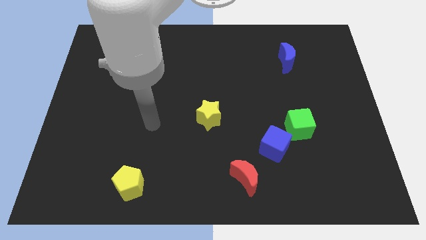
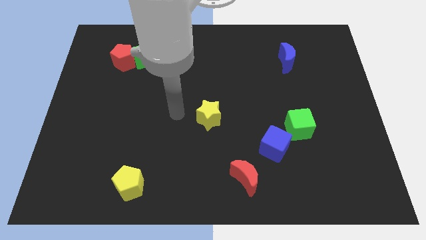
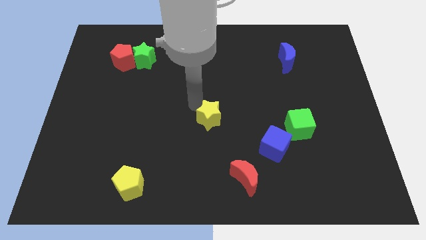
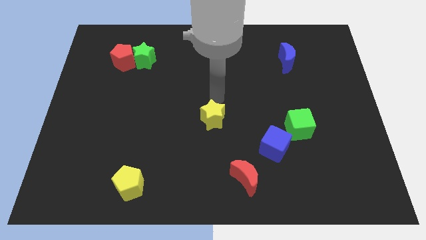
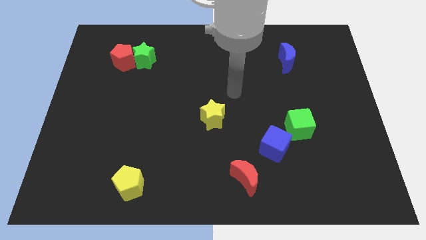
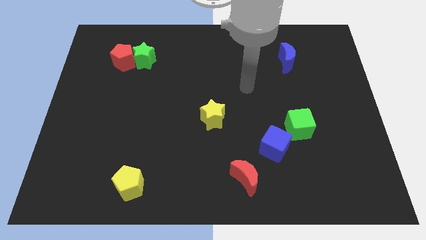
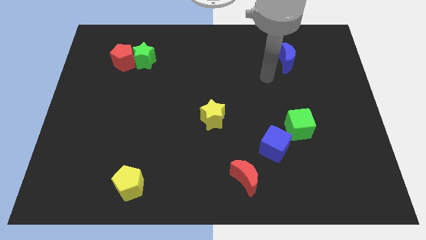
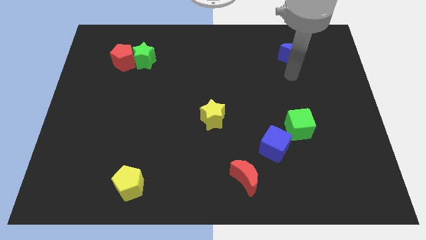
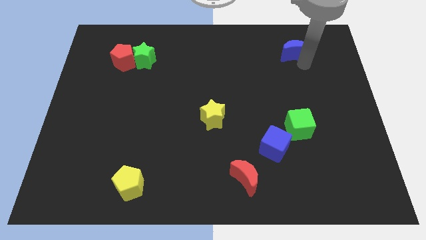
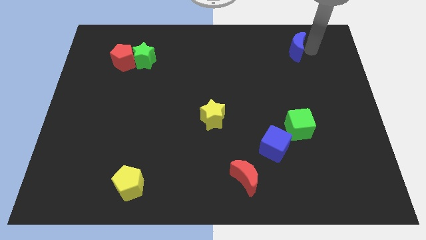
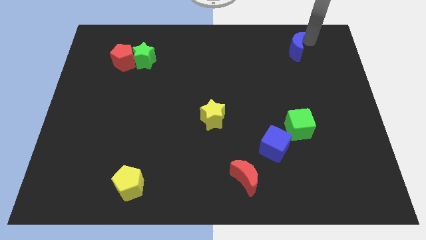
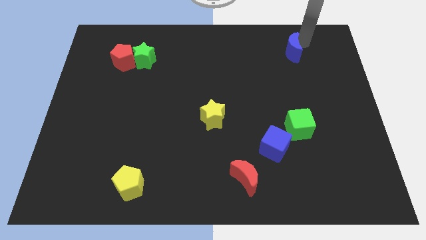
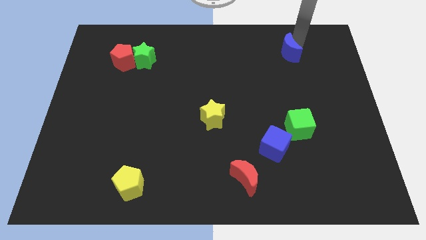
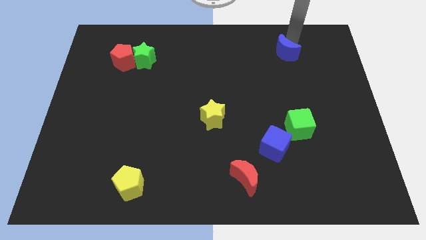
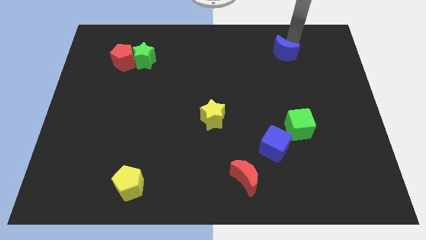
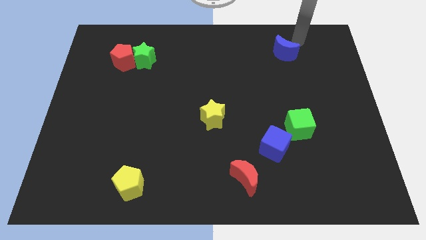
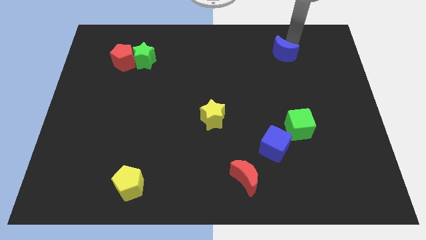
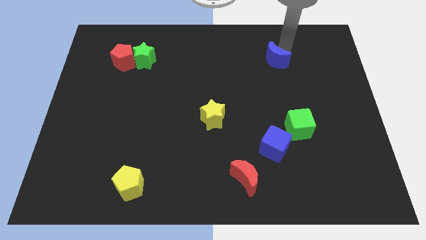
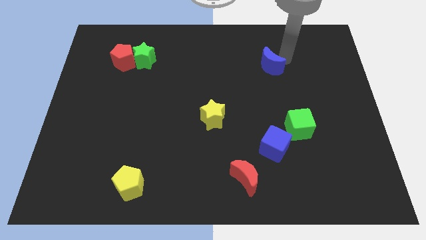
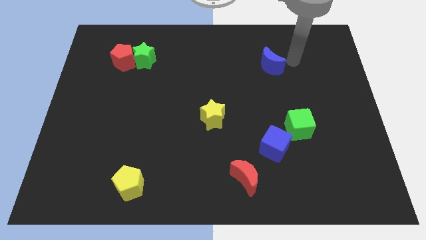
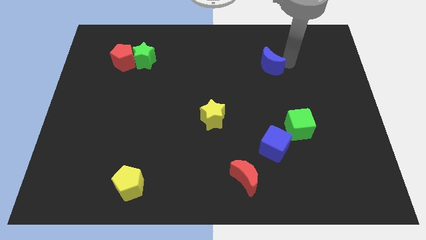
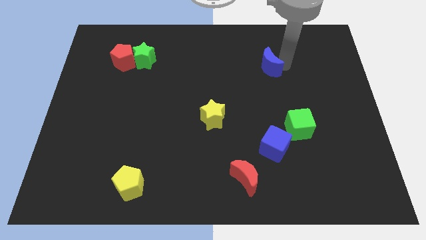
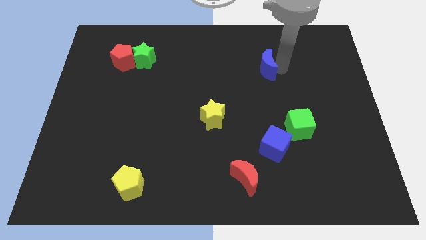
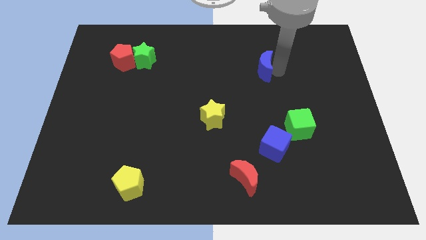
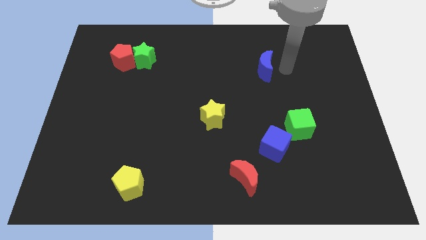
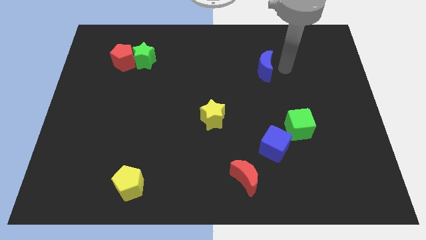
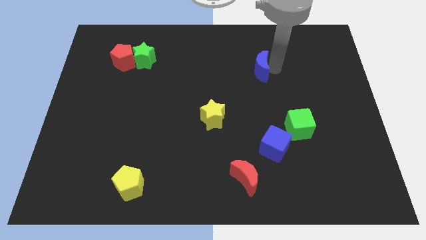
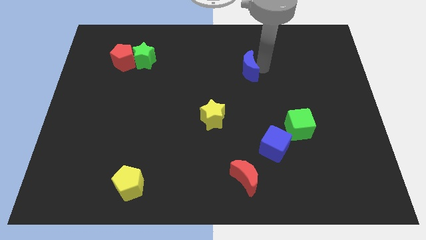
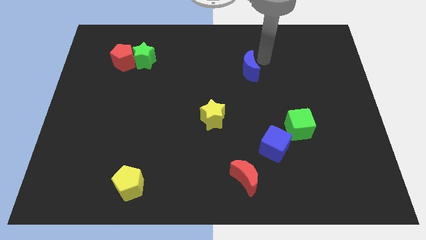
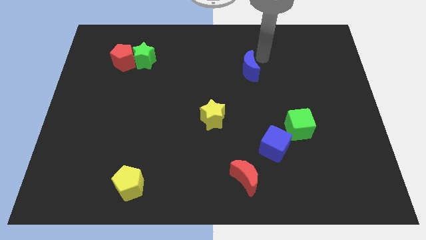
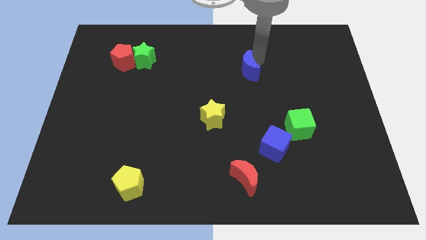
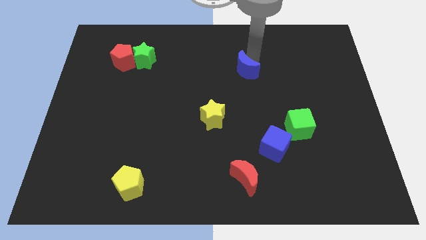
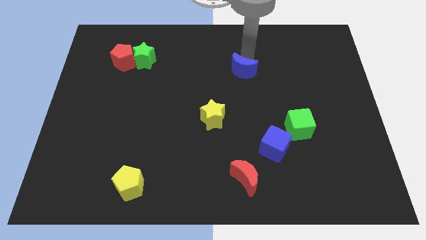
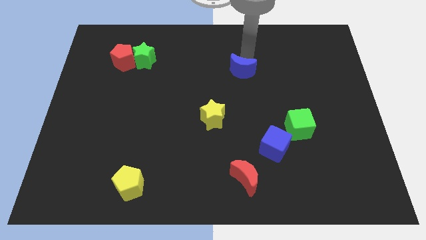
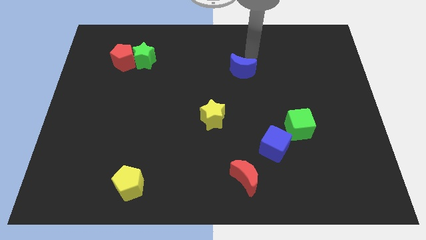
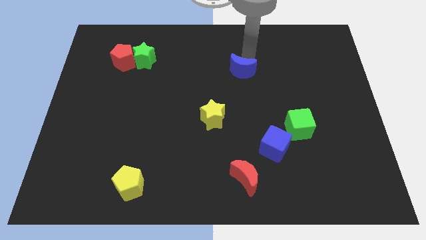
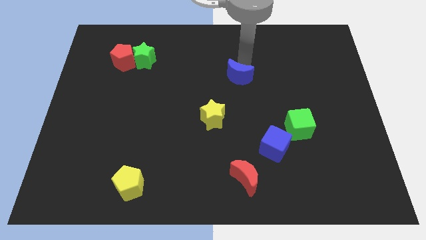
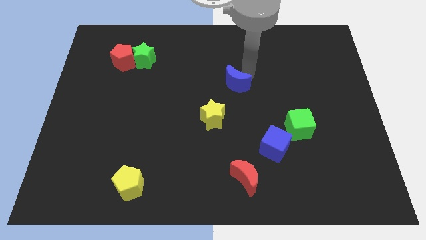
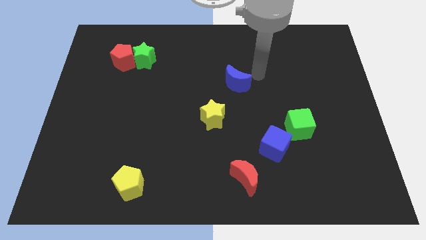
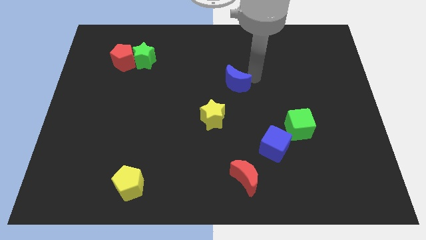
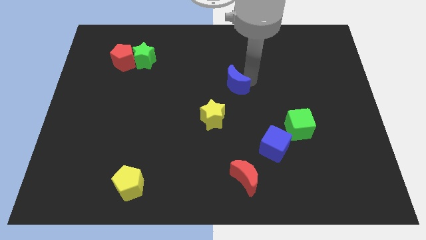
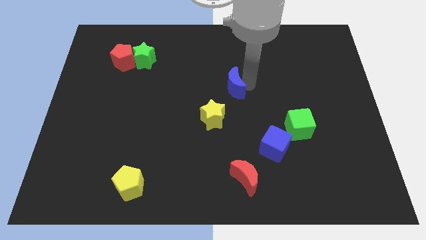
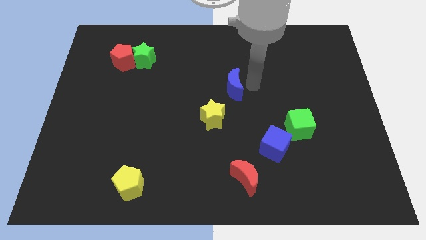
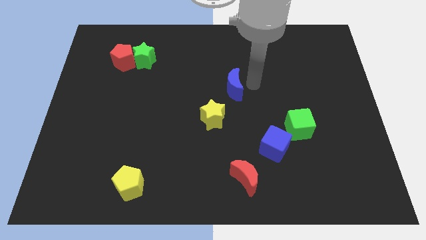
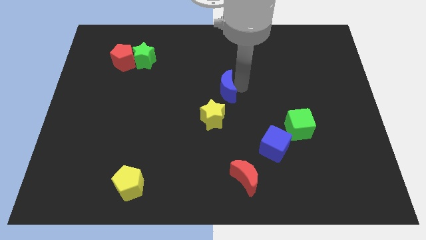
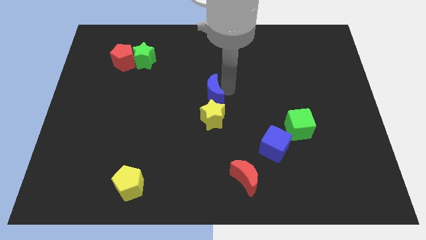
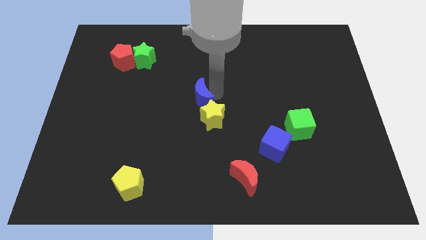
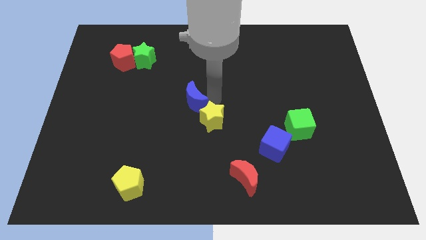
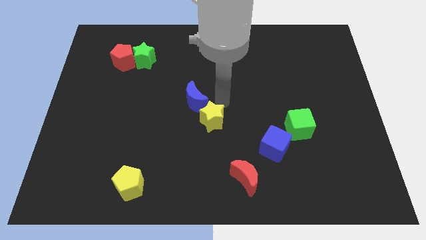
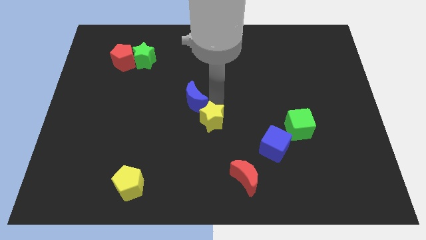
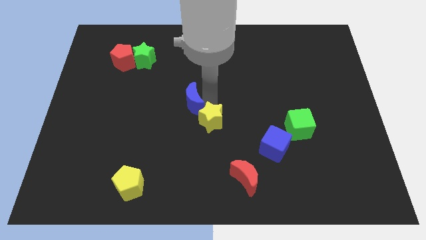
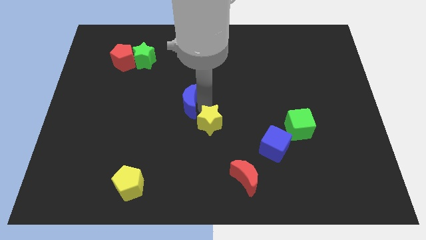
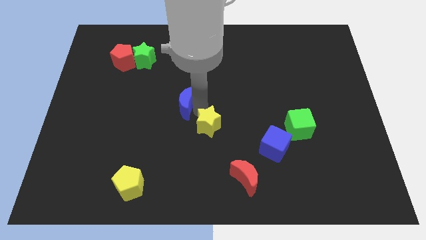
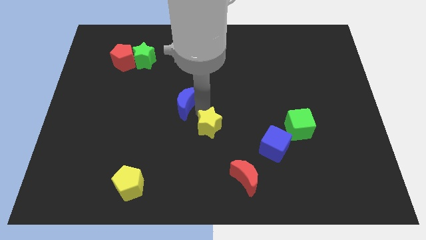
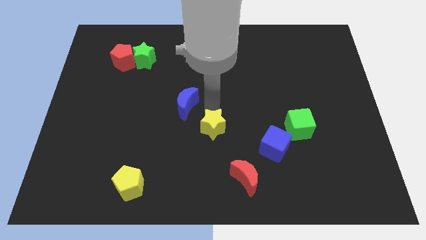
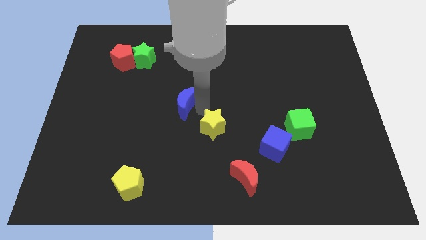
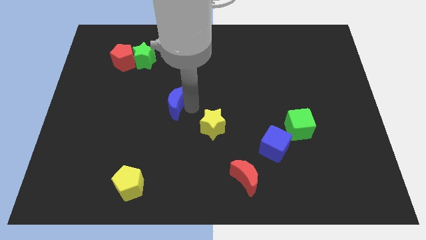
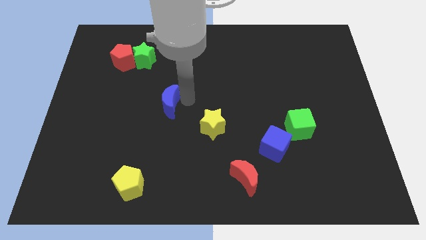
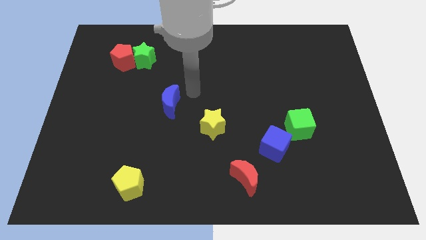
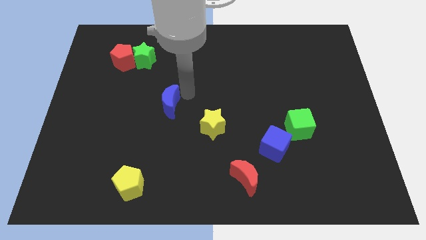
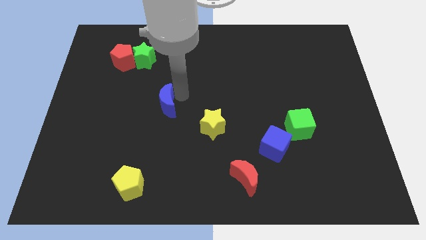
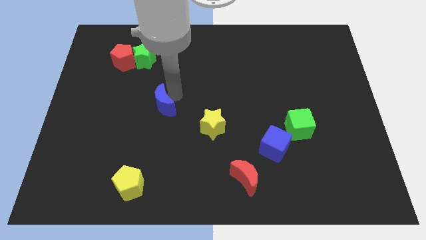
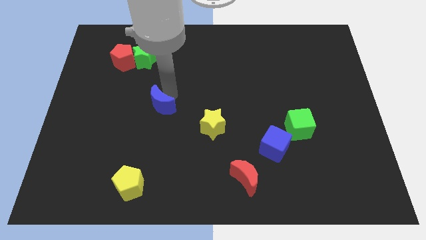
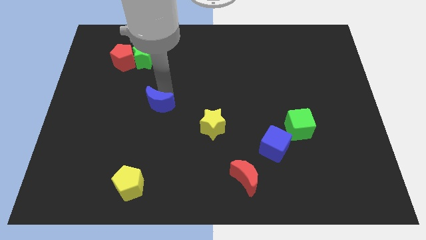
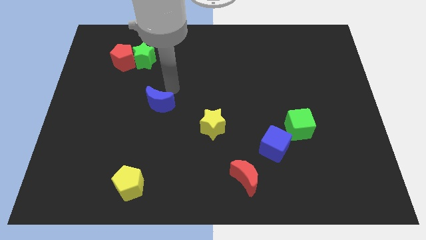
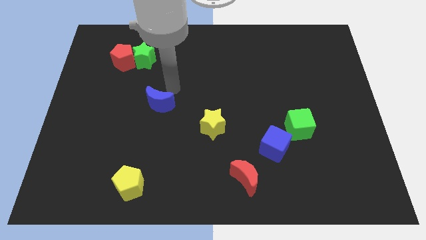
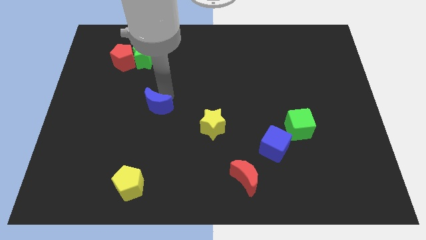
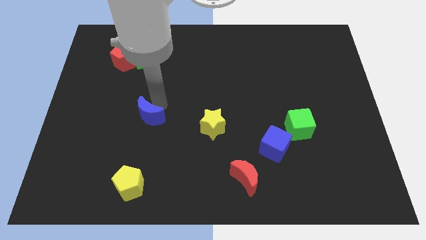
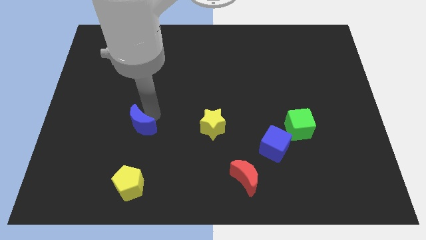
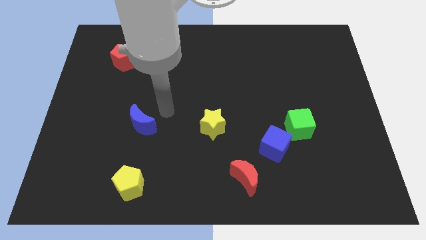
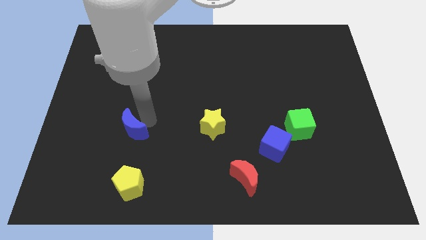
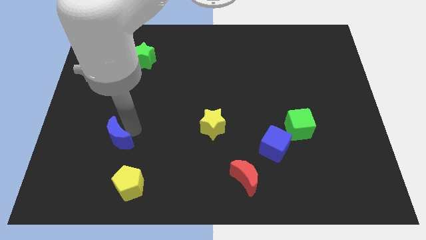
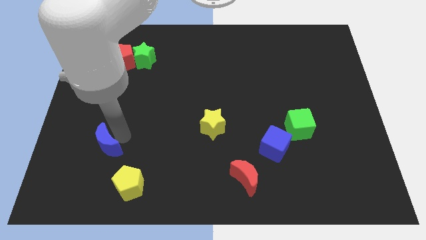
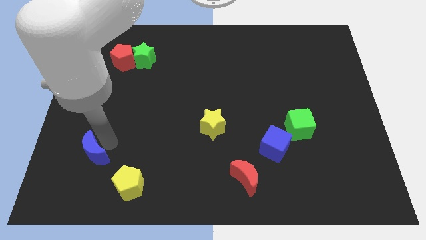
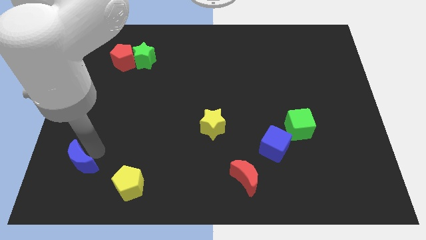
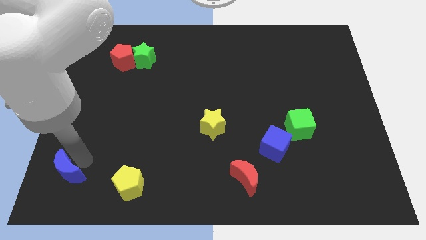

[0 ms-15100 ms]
move the blue moon to the bottom left of the board
